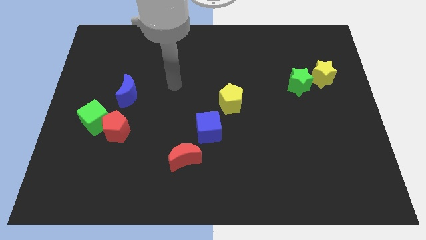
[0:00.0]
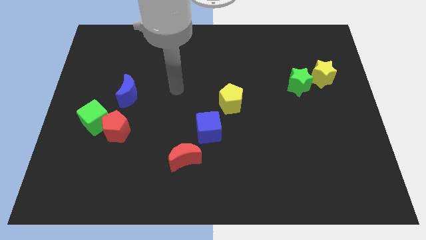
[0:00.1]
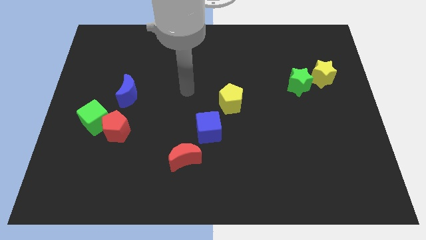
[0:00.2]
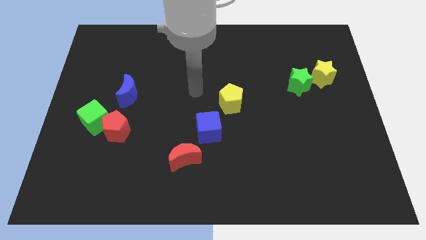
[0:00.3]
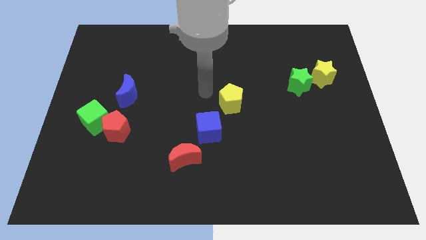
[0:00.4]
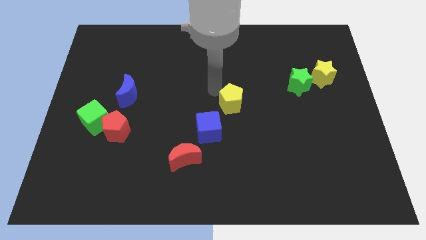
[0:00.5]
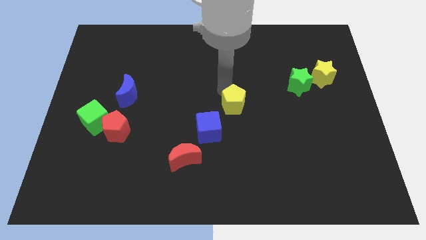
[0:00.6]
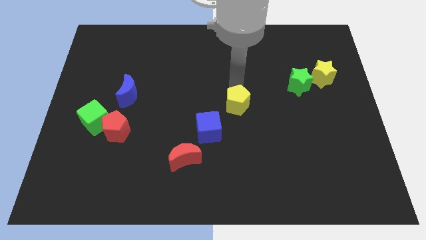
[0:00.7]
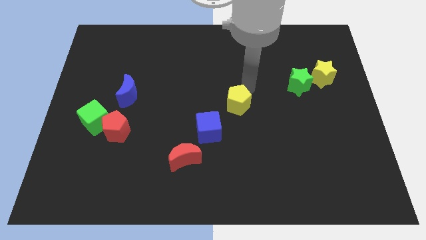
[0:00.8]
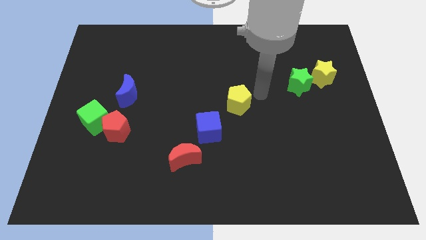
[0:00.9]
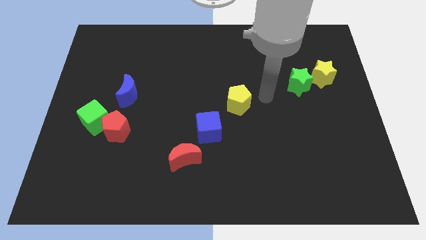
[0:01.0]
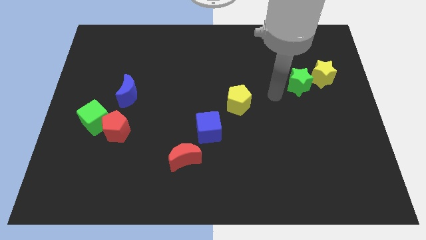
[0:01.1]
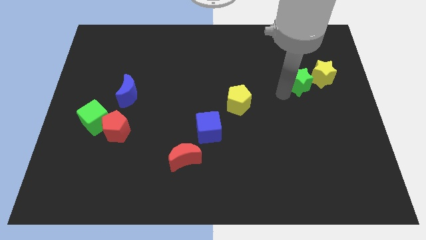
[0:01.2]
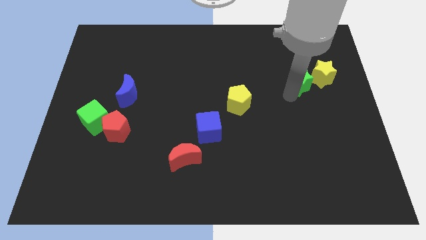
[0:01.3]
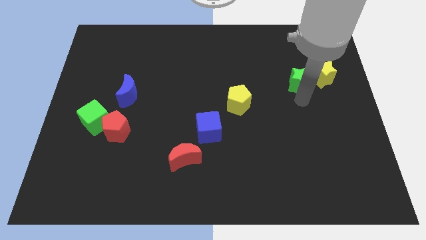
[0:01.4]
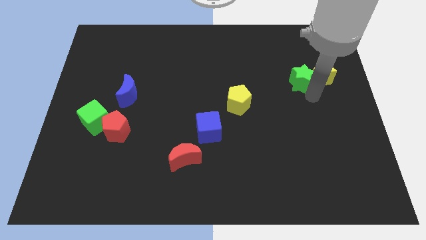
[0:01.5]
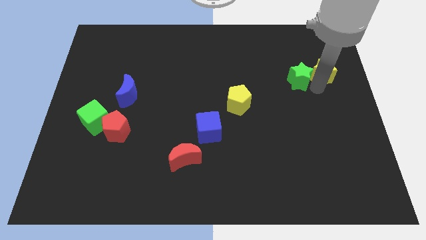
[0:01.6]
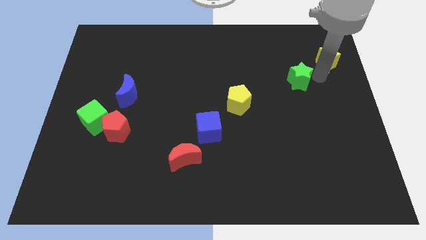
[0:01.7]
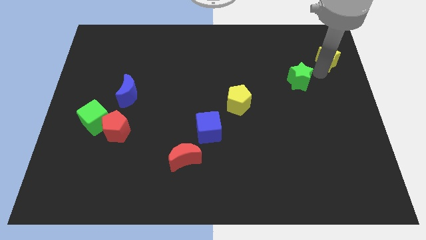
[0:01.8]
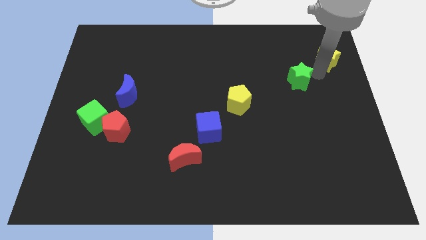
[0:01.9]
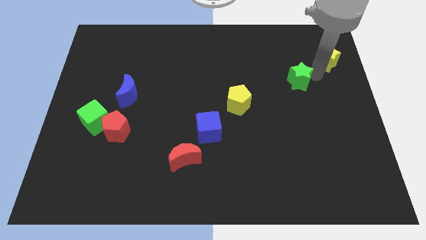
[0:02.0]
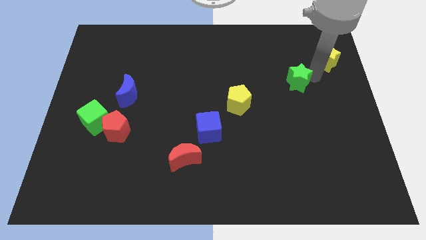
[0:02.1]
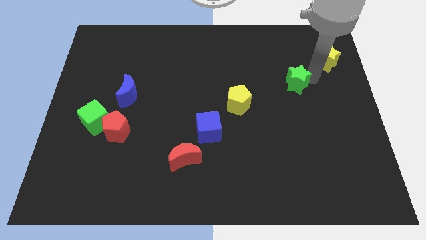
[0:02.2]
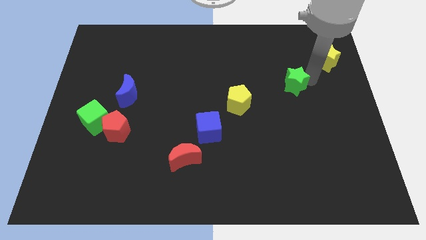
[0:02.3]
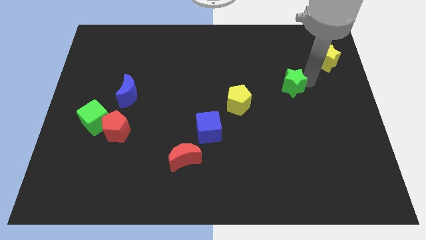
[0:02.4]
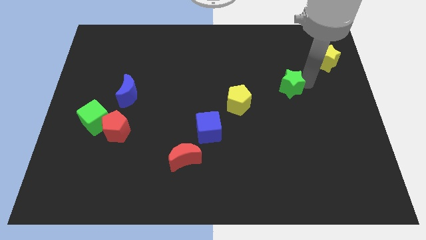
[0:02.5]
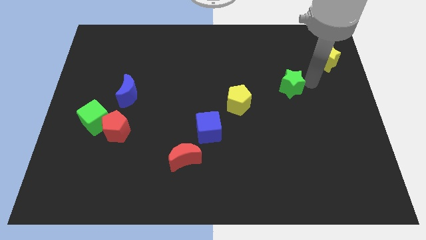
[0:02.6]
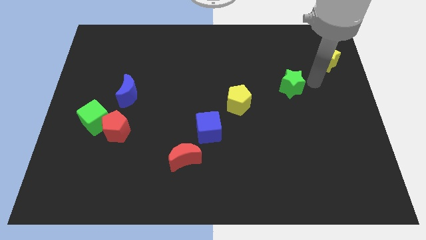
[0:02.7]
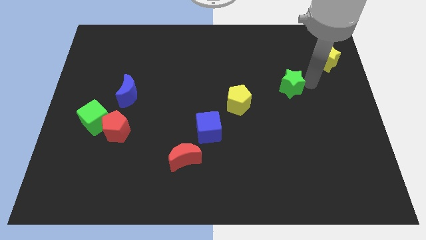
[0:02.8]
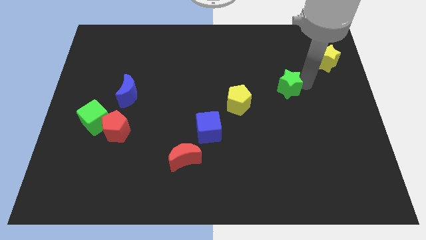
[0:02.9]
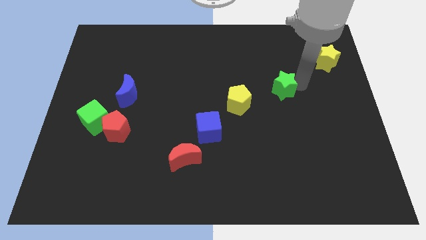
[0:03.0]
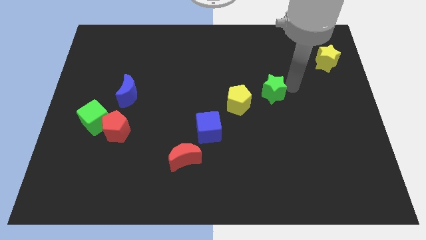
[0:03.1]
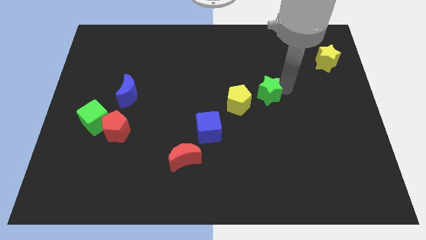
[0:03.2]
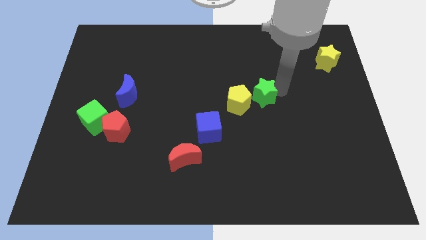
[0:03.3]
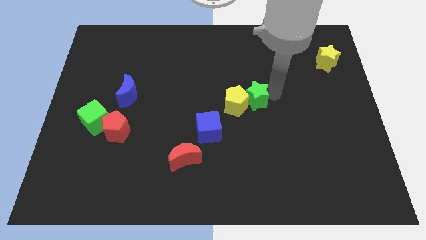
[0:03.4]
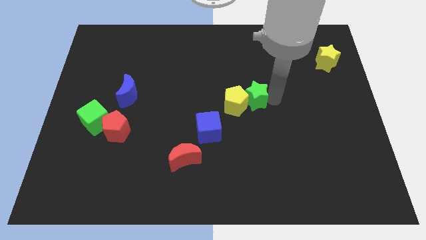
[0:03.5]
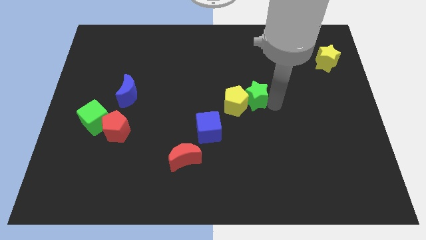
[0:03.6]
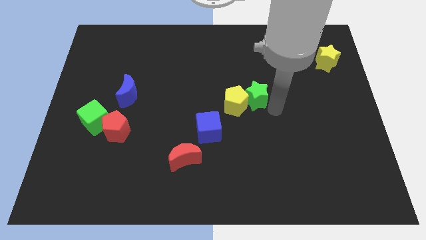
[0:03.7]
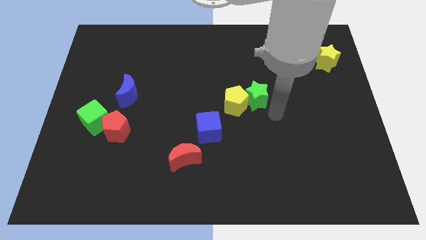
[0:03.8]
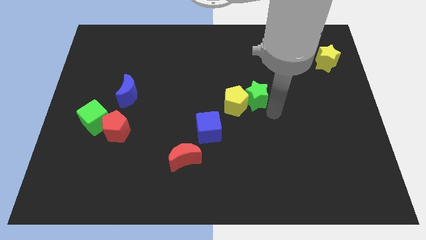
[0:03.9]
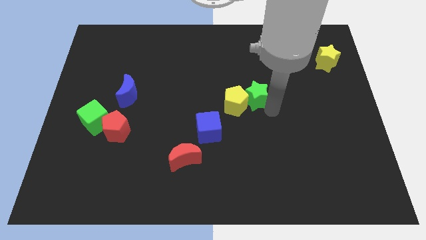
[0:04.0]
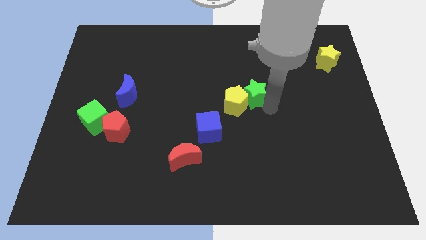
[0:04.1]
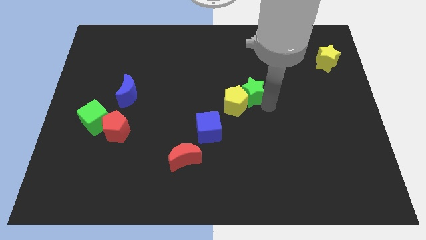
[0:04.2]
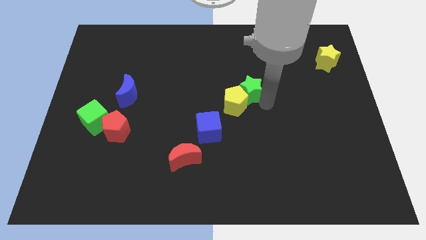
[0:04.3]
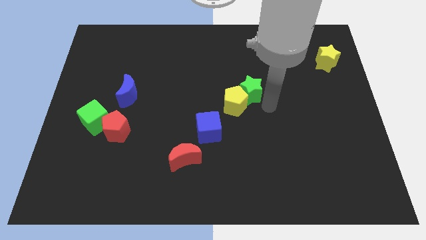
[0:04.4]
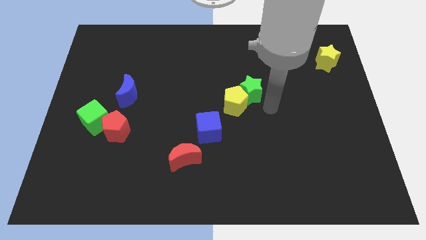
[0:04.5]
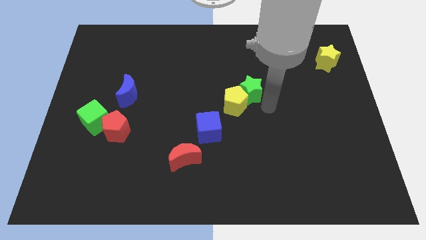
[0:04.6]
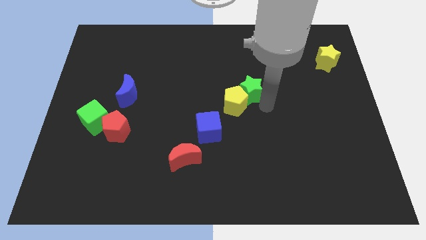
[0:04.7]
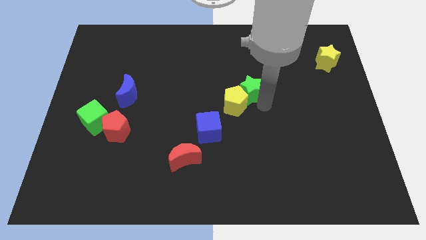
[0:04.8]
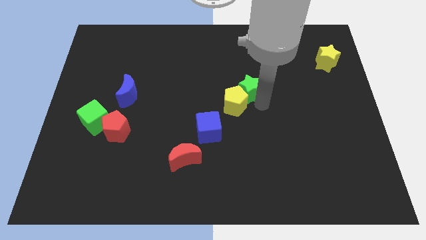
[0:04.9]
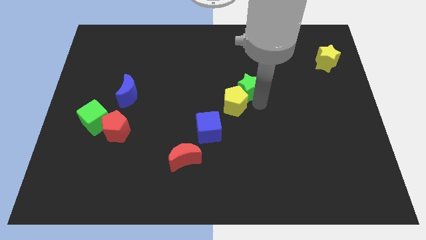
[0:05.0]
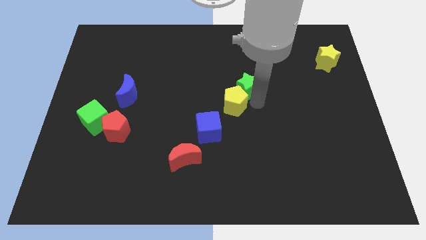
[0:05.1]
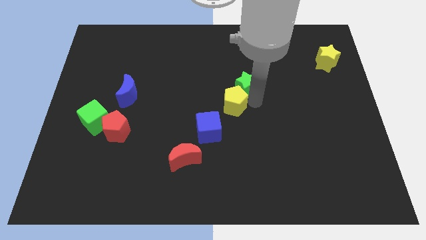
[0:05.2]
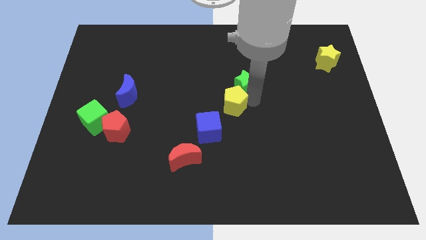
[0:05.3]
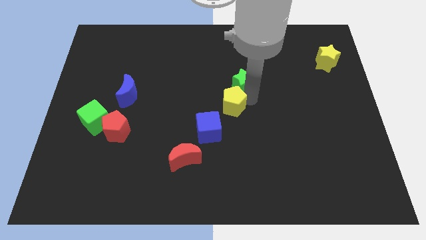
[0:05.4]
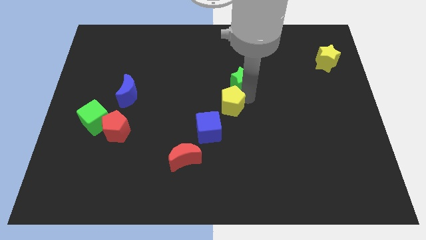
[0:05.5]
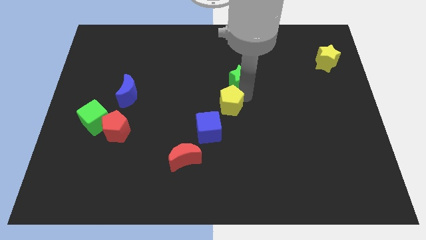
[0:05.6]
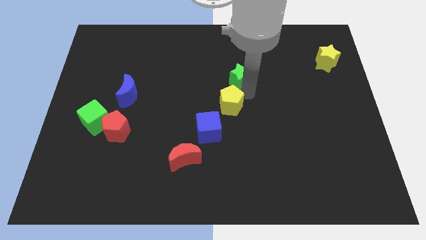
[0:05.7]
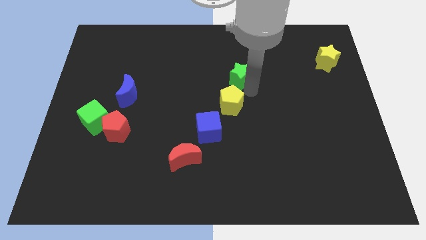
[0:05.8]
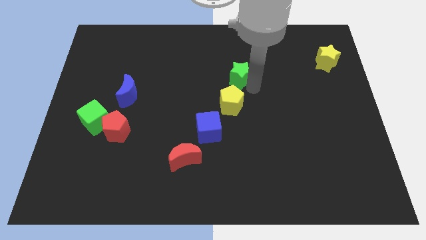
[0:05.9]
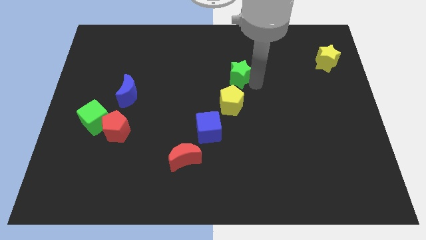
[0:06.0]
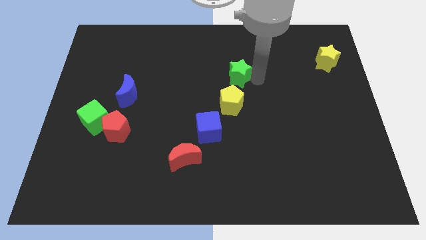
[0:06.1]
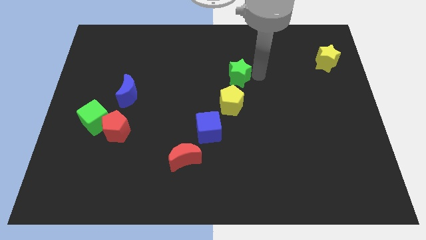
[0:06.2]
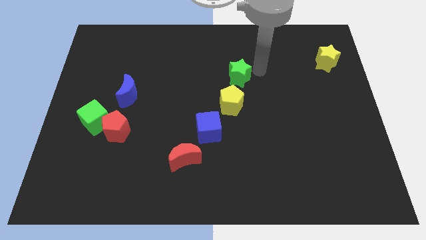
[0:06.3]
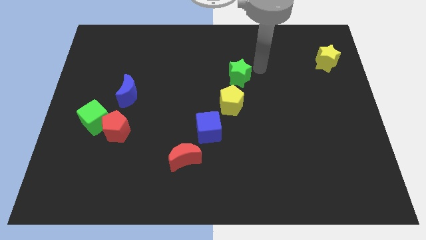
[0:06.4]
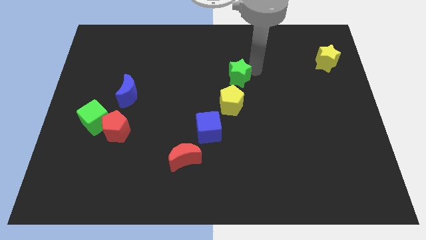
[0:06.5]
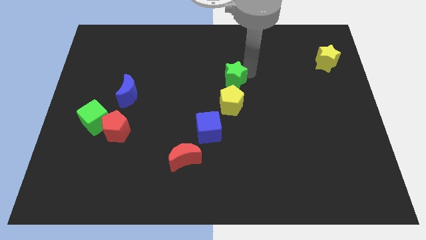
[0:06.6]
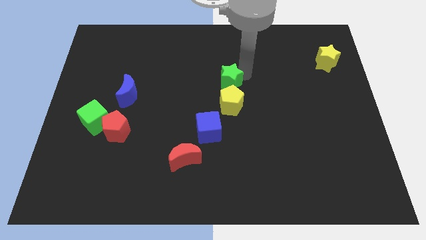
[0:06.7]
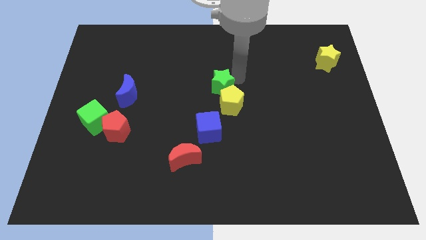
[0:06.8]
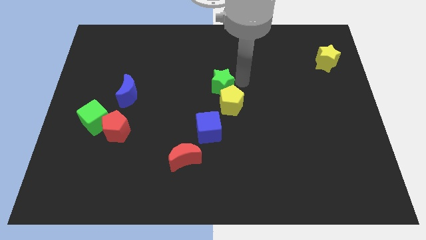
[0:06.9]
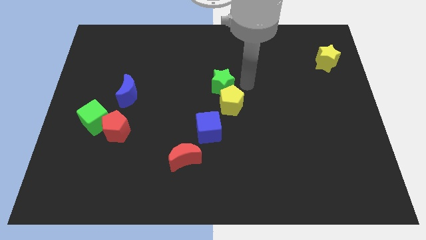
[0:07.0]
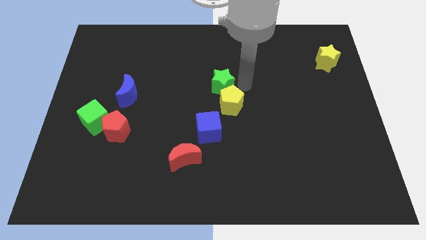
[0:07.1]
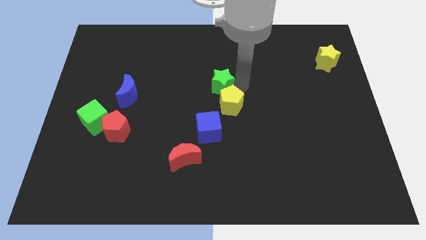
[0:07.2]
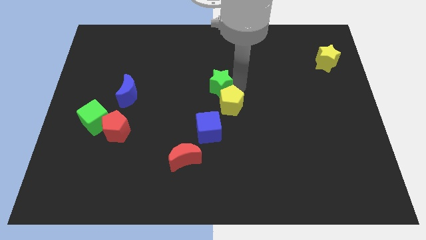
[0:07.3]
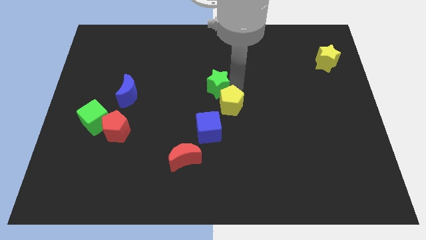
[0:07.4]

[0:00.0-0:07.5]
move the green star left

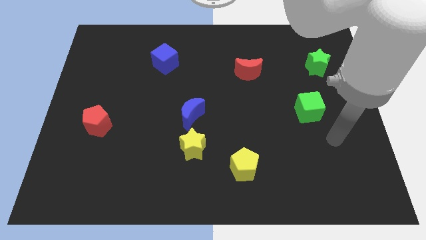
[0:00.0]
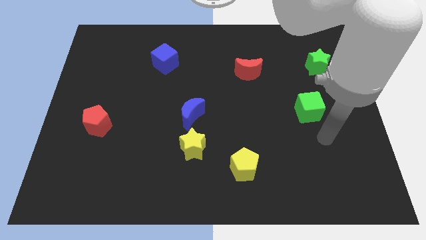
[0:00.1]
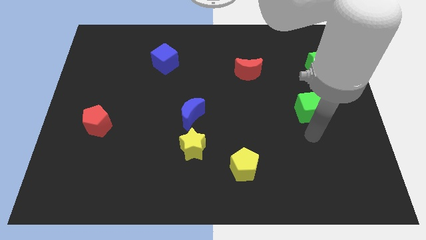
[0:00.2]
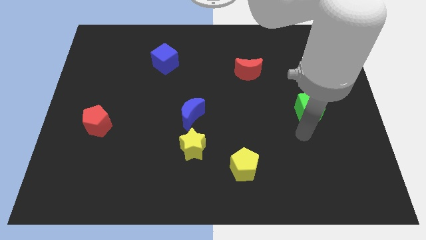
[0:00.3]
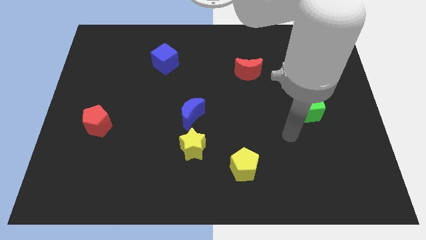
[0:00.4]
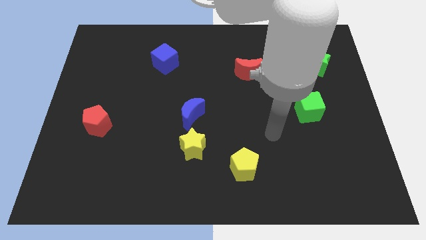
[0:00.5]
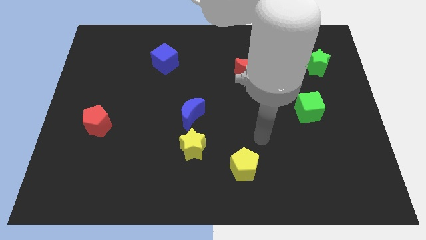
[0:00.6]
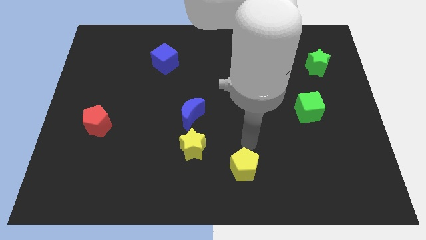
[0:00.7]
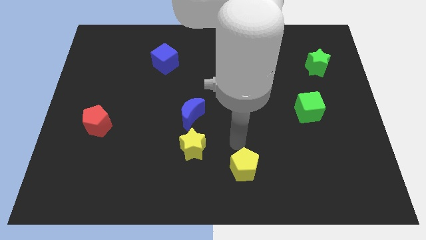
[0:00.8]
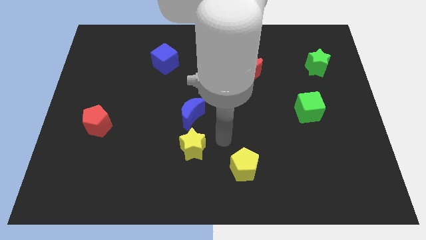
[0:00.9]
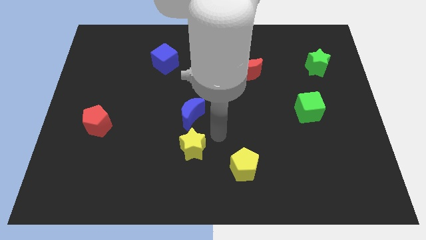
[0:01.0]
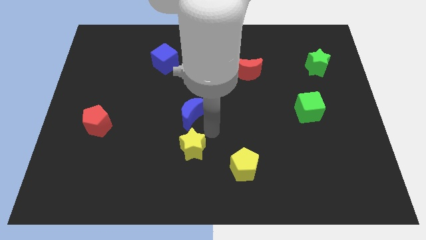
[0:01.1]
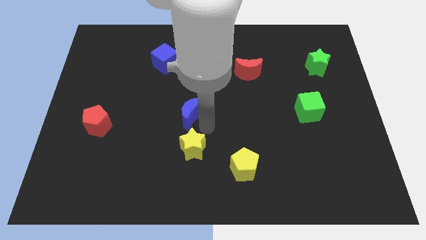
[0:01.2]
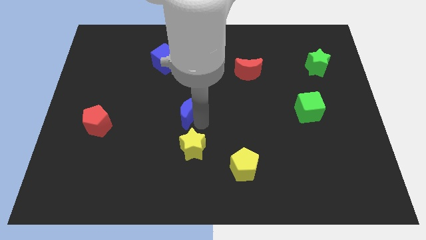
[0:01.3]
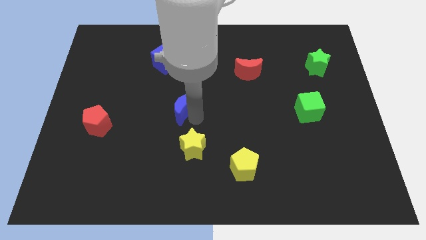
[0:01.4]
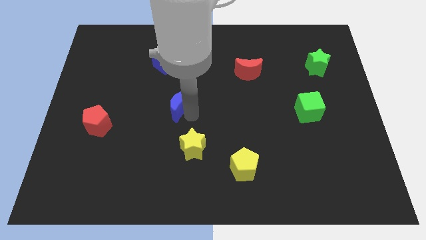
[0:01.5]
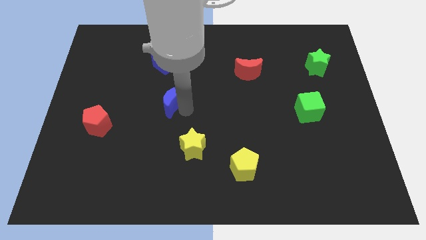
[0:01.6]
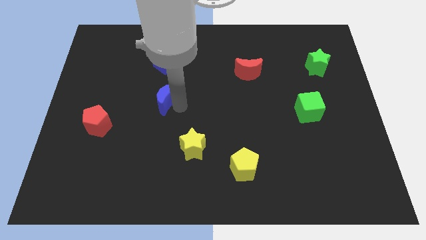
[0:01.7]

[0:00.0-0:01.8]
slightly push the blue moon upwards and left diagonally
